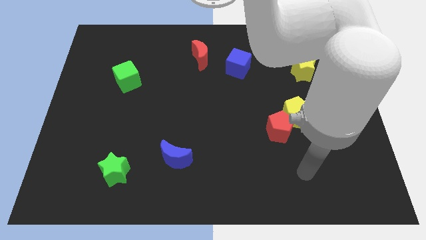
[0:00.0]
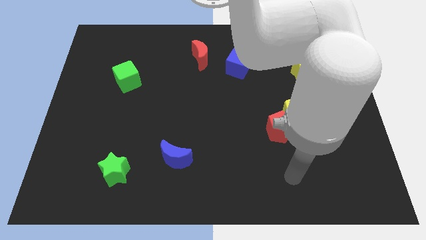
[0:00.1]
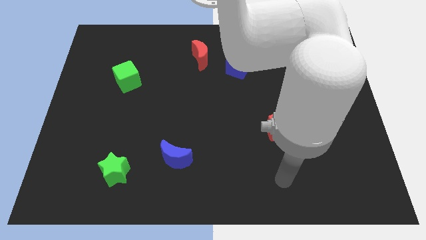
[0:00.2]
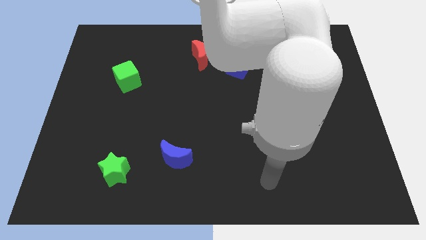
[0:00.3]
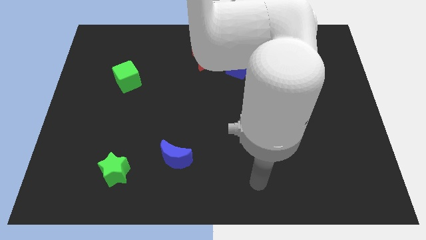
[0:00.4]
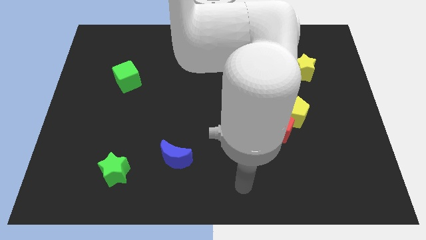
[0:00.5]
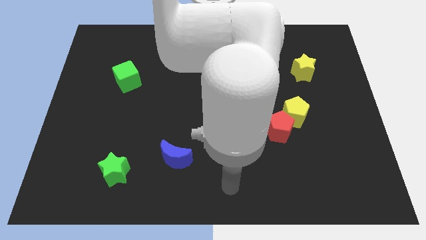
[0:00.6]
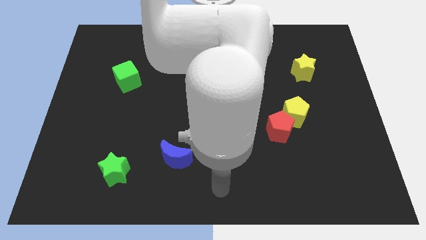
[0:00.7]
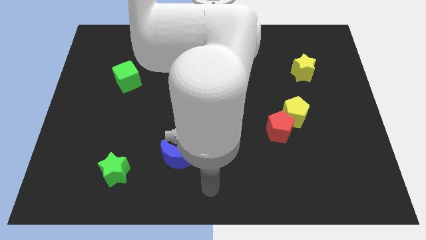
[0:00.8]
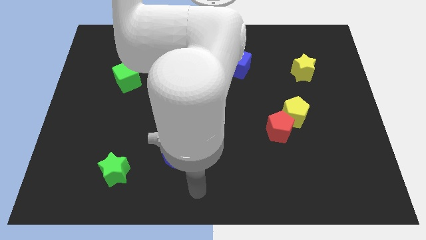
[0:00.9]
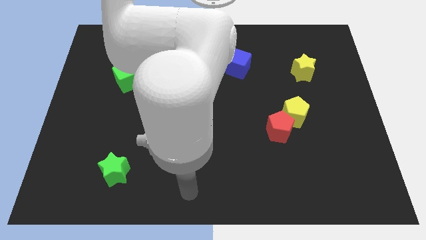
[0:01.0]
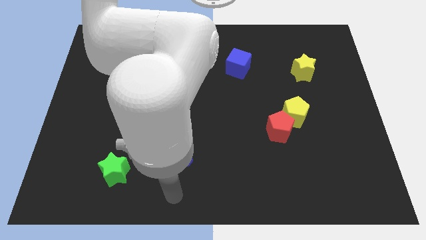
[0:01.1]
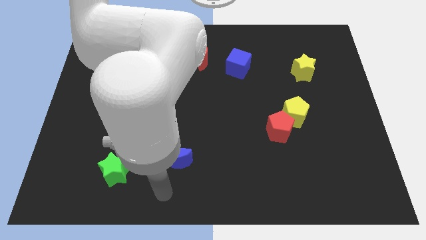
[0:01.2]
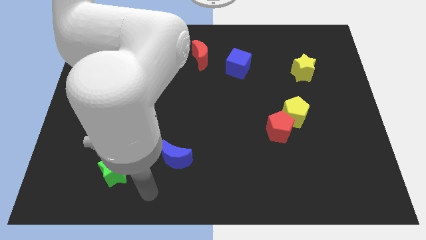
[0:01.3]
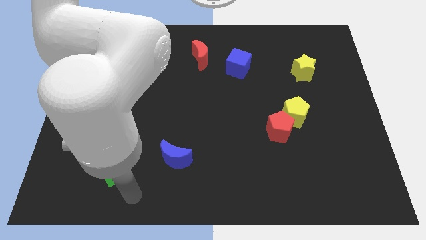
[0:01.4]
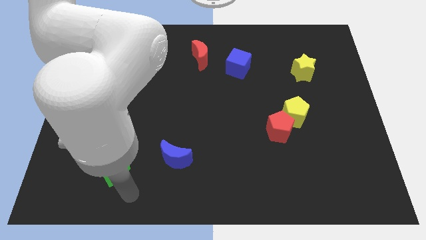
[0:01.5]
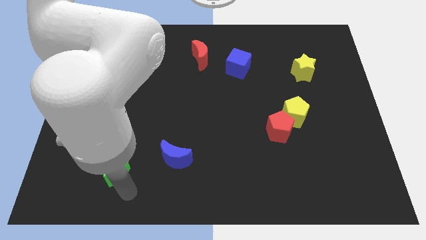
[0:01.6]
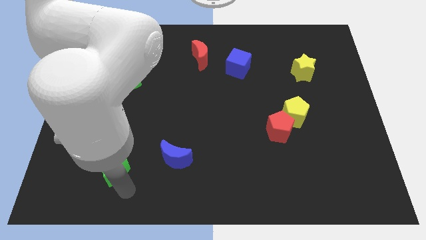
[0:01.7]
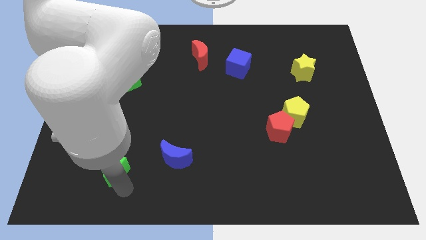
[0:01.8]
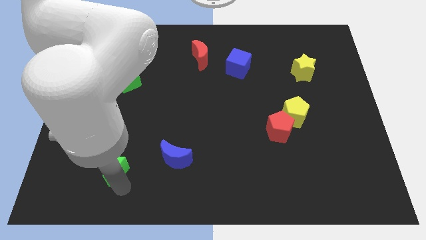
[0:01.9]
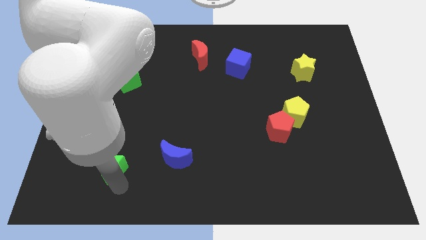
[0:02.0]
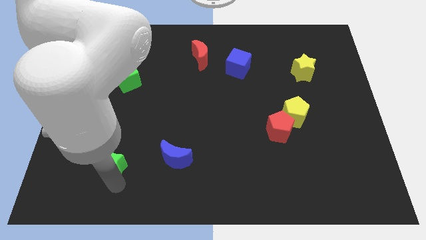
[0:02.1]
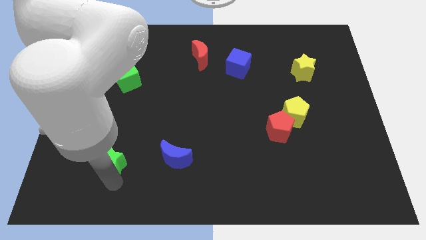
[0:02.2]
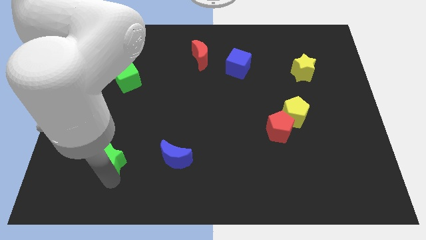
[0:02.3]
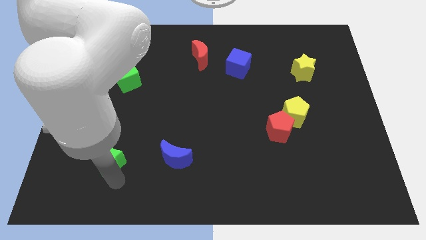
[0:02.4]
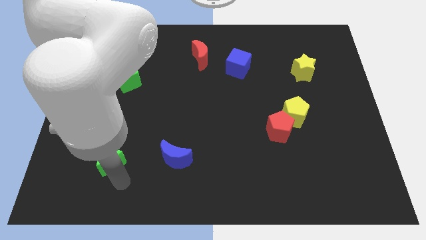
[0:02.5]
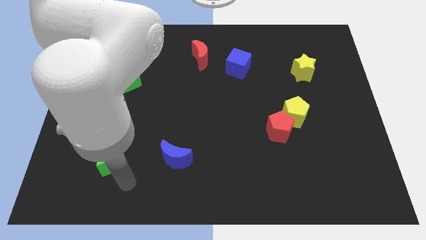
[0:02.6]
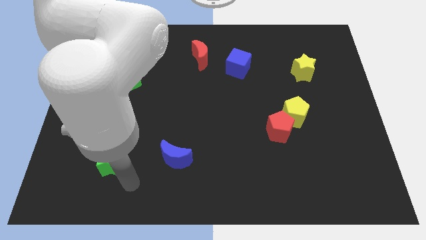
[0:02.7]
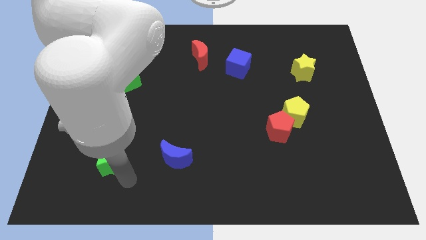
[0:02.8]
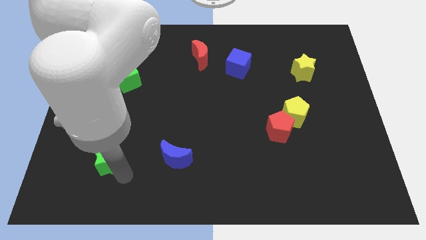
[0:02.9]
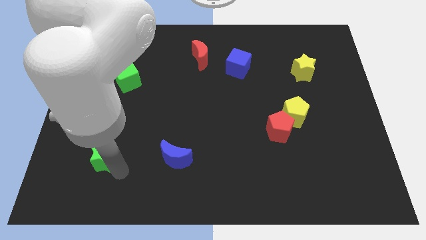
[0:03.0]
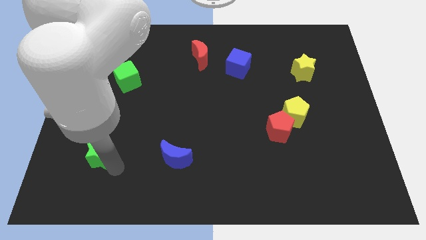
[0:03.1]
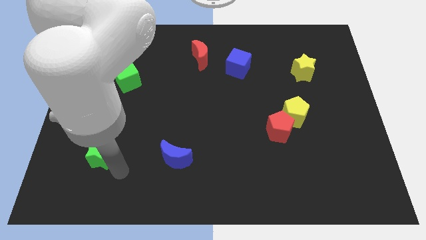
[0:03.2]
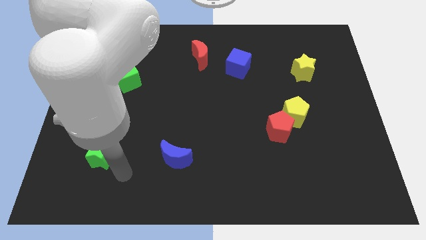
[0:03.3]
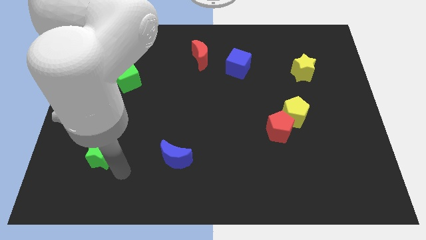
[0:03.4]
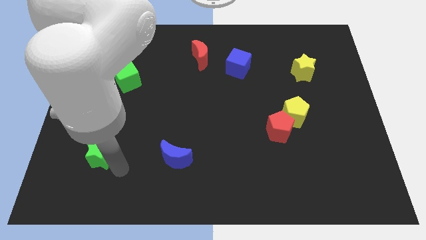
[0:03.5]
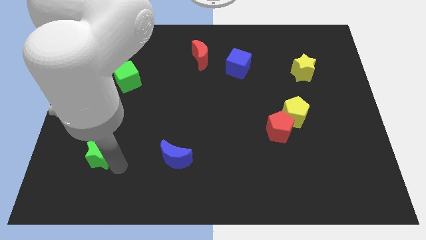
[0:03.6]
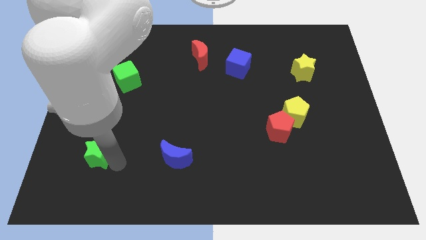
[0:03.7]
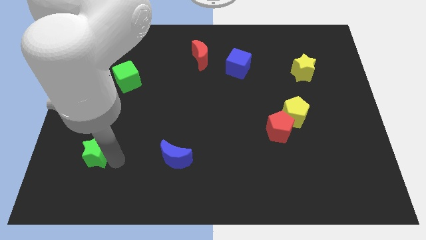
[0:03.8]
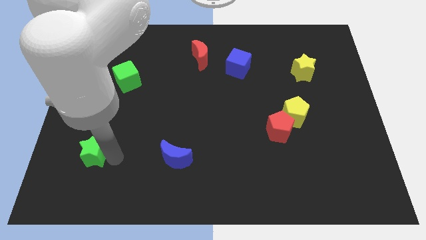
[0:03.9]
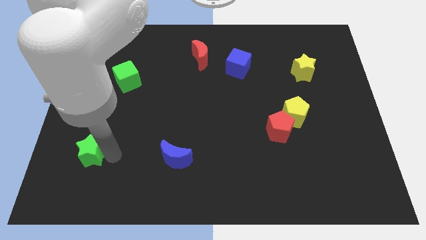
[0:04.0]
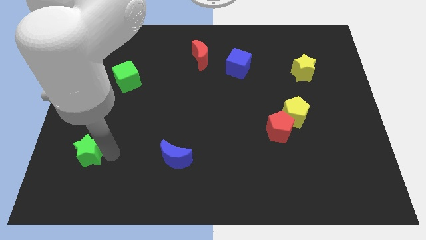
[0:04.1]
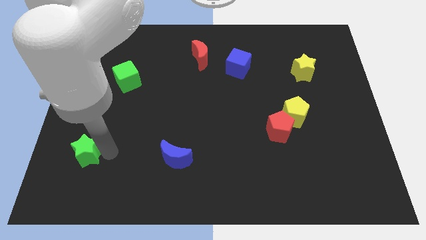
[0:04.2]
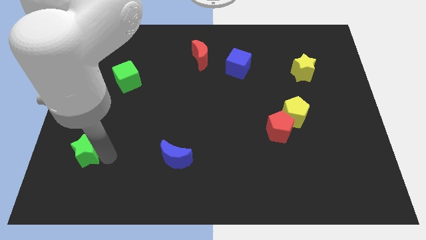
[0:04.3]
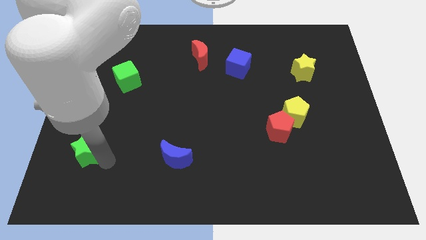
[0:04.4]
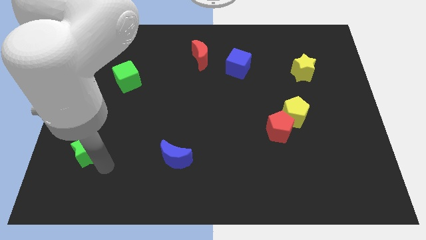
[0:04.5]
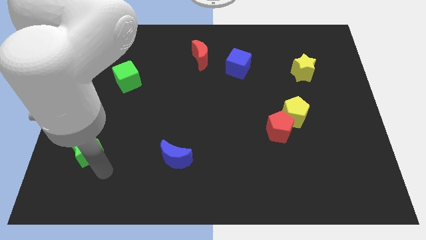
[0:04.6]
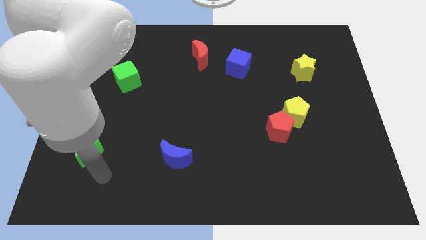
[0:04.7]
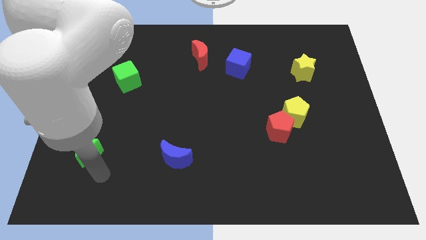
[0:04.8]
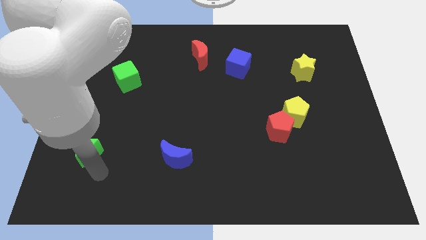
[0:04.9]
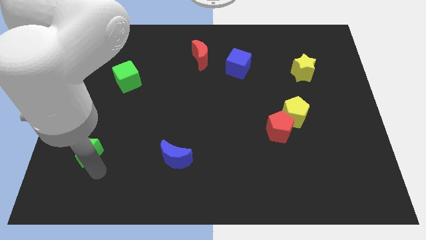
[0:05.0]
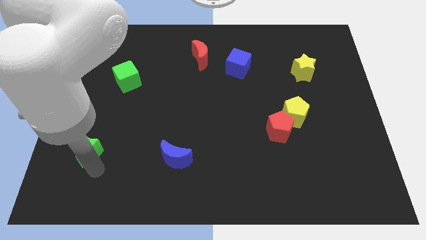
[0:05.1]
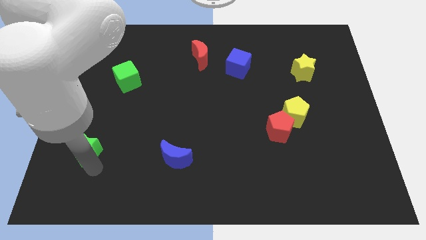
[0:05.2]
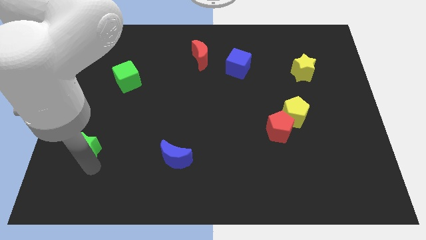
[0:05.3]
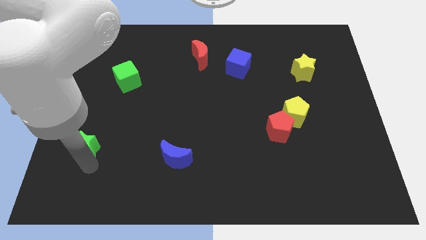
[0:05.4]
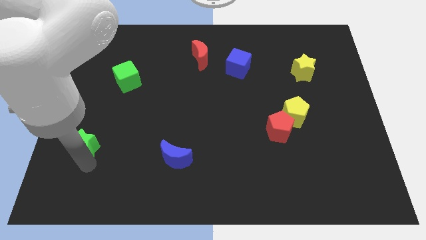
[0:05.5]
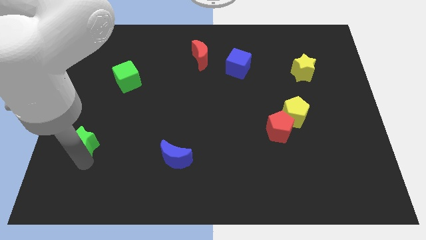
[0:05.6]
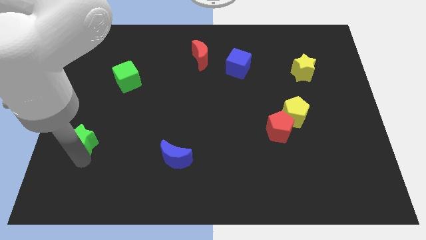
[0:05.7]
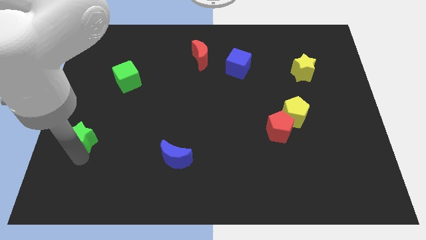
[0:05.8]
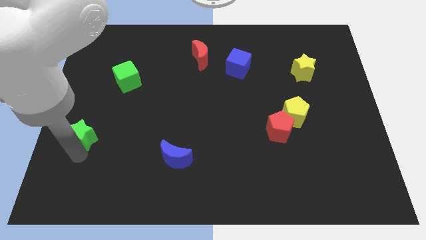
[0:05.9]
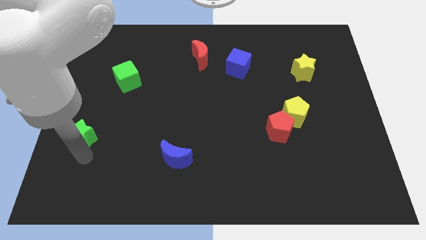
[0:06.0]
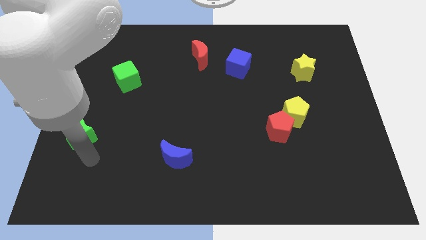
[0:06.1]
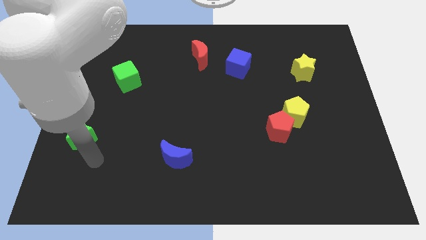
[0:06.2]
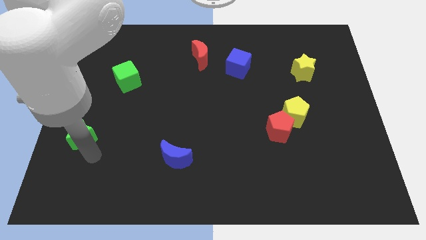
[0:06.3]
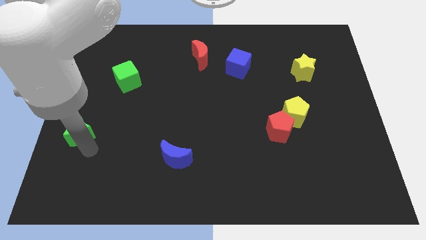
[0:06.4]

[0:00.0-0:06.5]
move the green star to the left side
